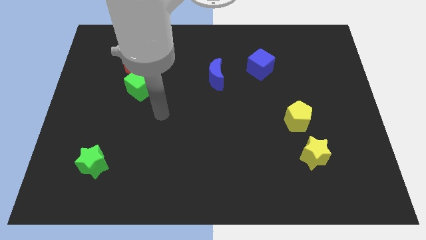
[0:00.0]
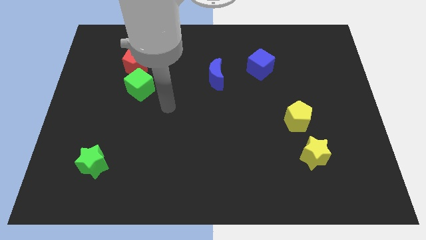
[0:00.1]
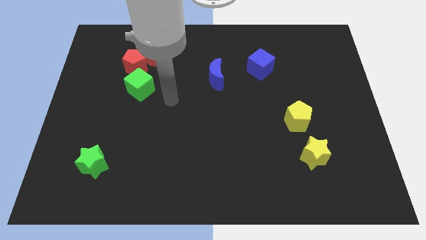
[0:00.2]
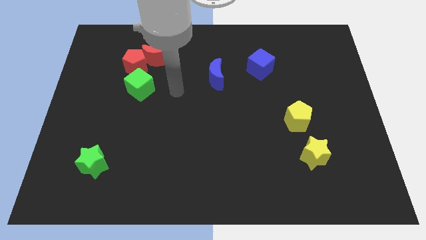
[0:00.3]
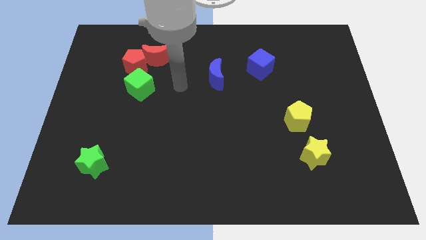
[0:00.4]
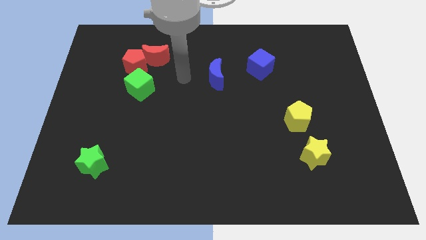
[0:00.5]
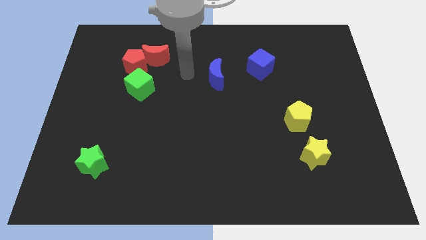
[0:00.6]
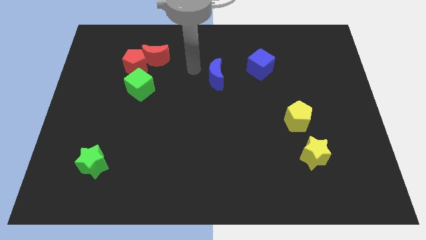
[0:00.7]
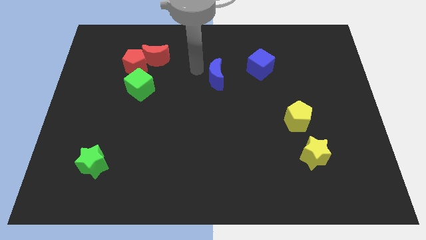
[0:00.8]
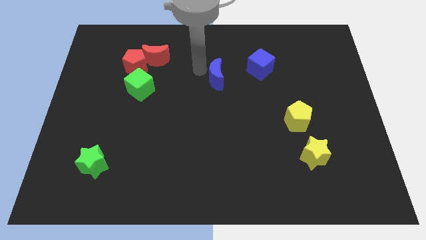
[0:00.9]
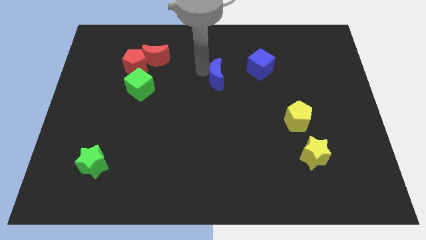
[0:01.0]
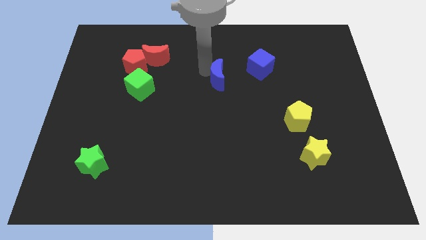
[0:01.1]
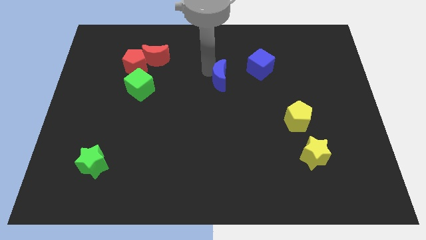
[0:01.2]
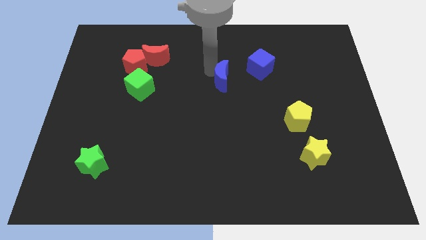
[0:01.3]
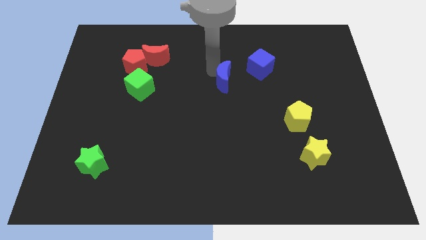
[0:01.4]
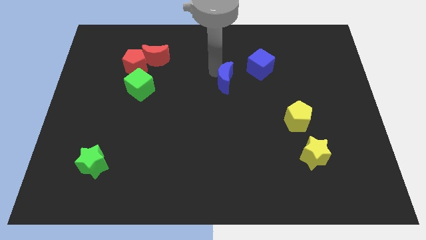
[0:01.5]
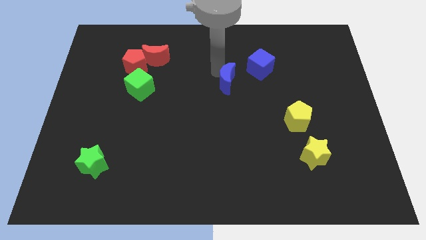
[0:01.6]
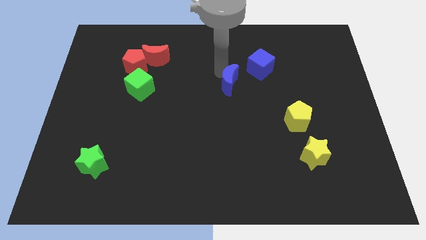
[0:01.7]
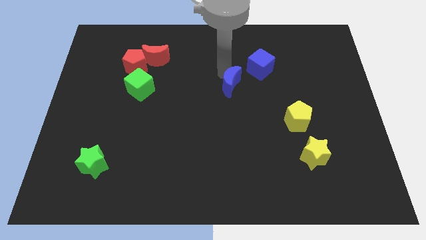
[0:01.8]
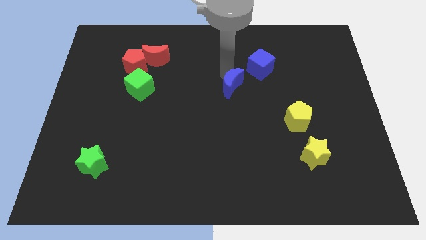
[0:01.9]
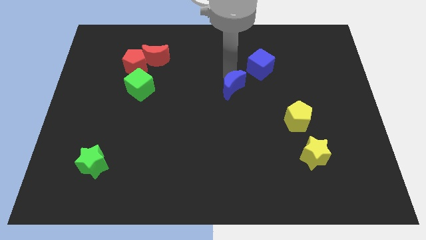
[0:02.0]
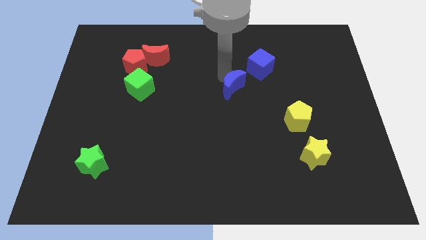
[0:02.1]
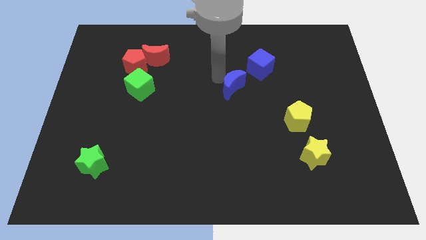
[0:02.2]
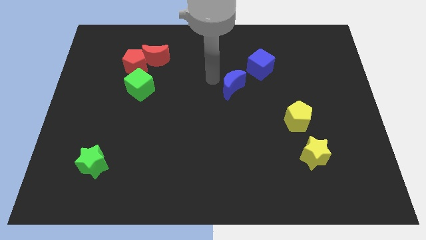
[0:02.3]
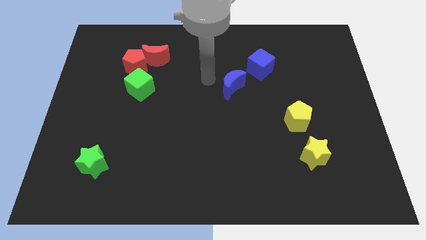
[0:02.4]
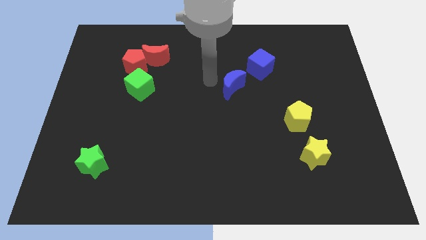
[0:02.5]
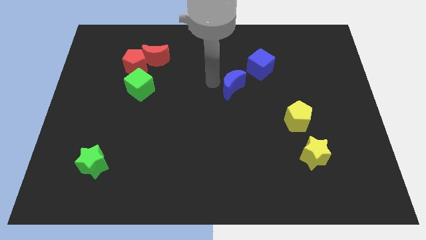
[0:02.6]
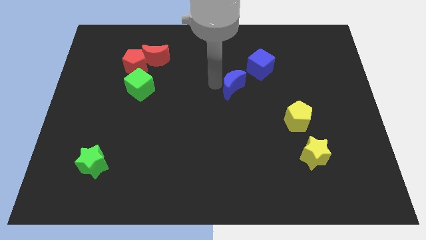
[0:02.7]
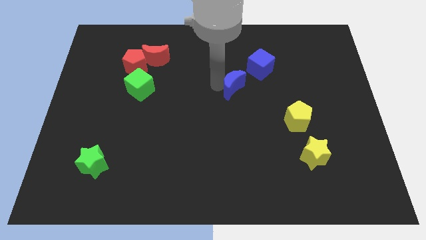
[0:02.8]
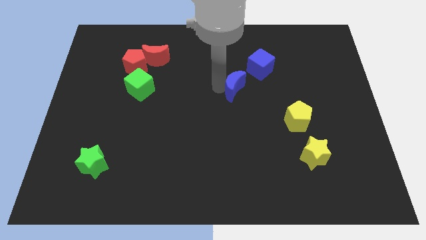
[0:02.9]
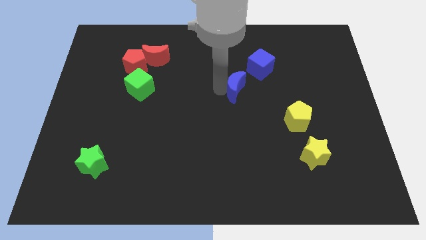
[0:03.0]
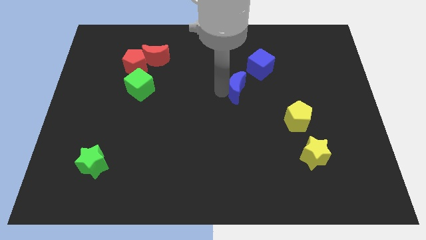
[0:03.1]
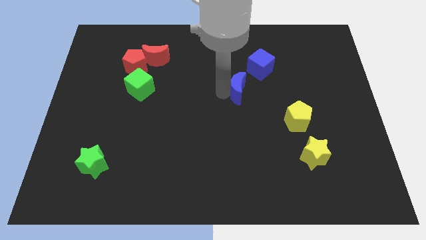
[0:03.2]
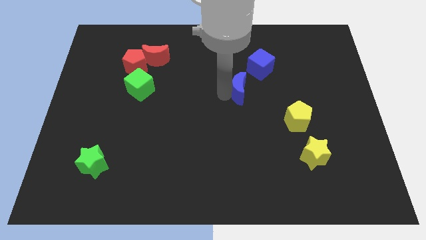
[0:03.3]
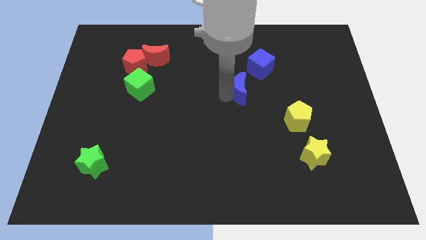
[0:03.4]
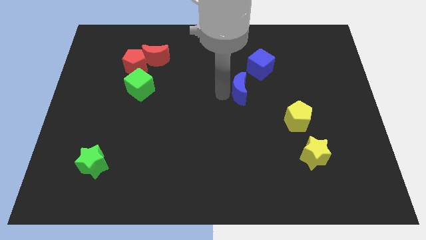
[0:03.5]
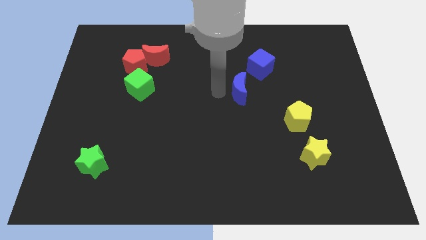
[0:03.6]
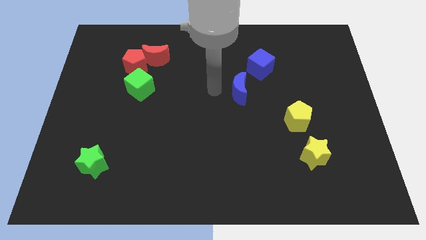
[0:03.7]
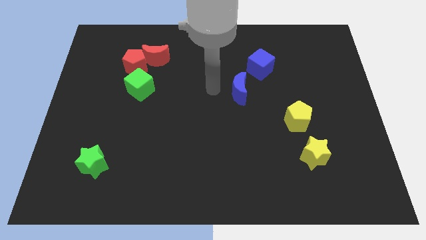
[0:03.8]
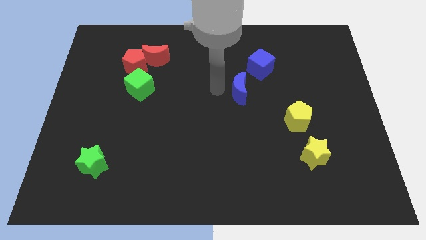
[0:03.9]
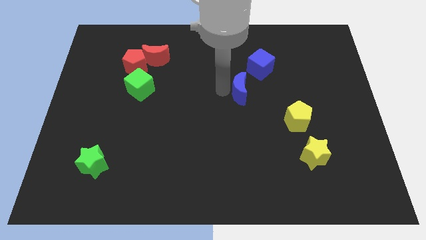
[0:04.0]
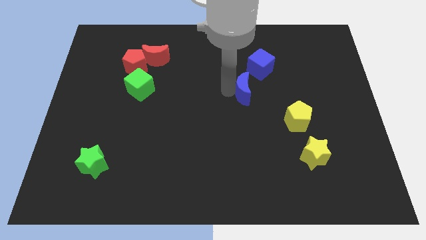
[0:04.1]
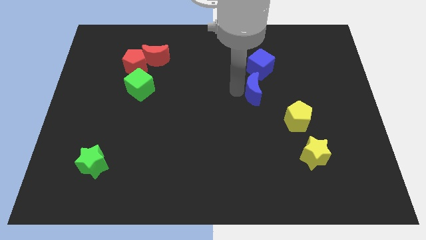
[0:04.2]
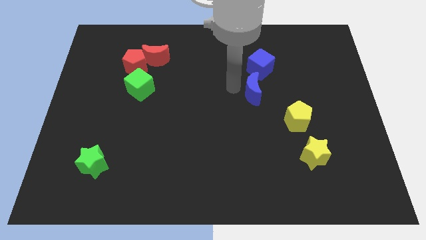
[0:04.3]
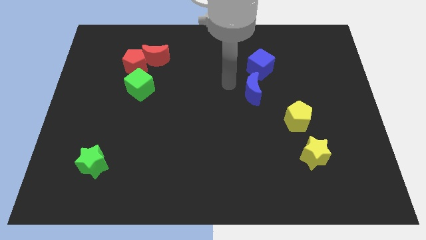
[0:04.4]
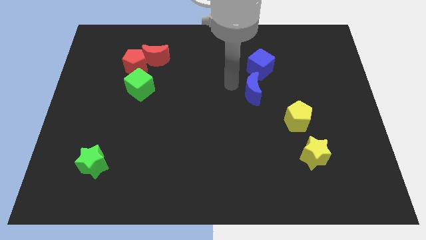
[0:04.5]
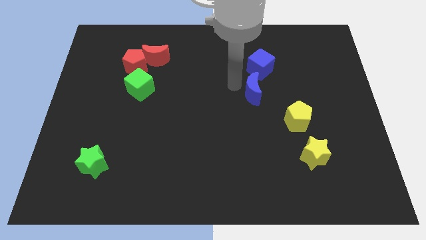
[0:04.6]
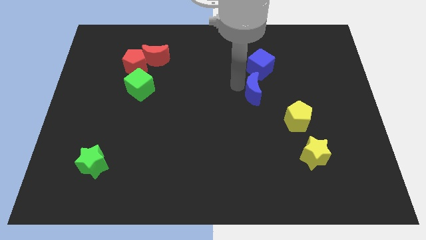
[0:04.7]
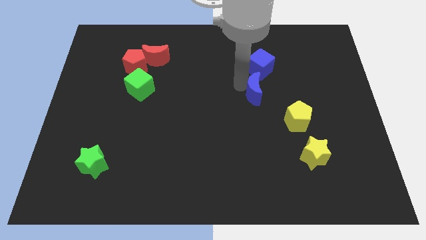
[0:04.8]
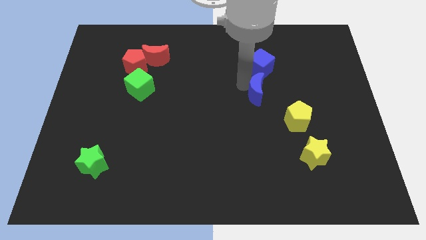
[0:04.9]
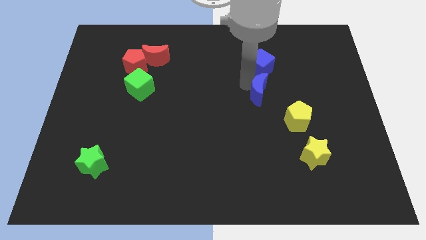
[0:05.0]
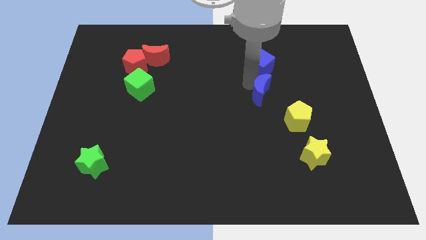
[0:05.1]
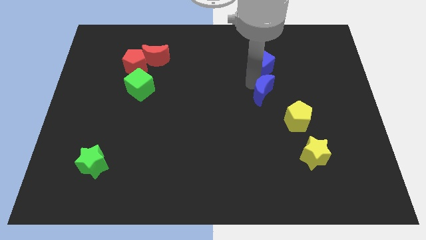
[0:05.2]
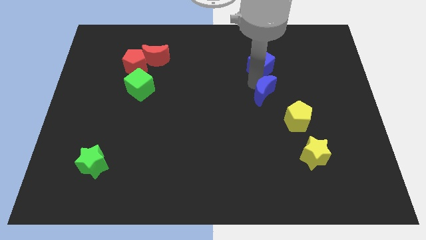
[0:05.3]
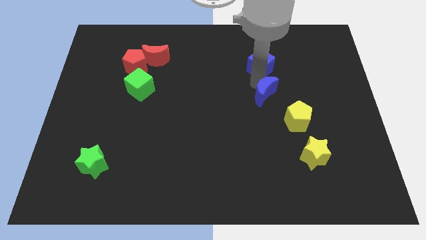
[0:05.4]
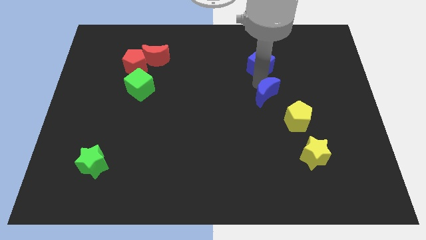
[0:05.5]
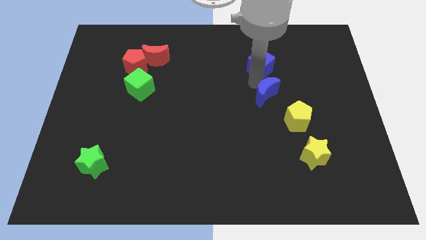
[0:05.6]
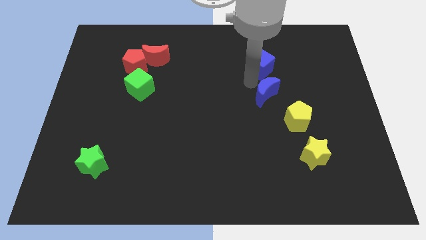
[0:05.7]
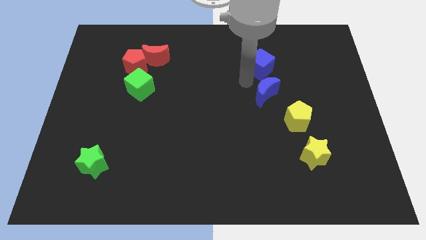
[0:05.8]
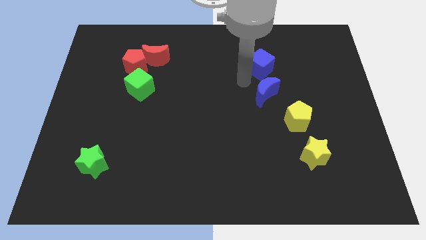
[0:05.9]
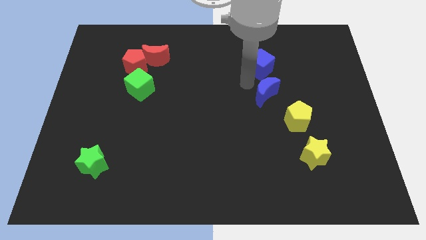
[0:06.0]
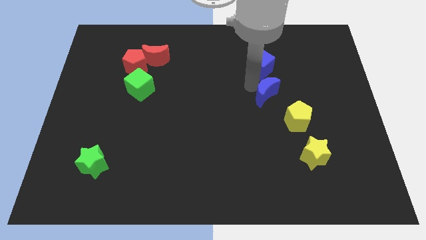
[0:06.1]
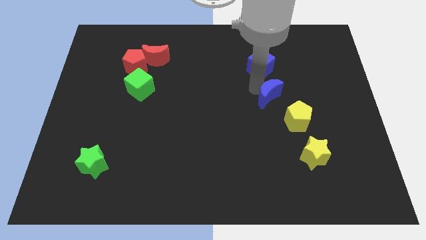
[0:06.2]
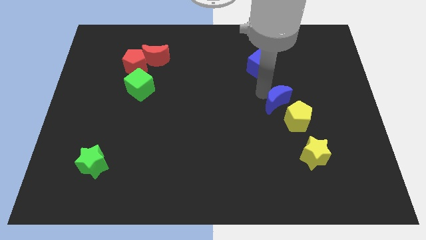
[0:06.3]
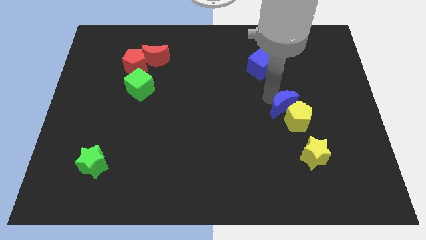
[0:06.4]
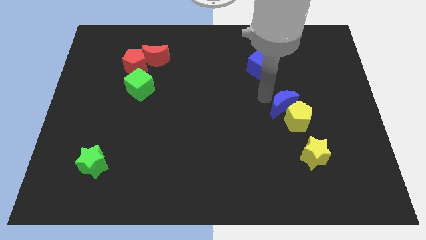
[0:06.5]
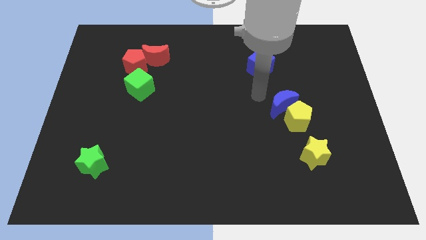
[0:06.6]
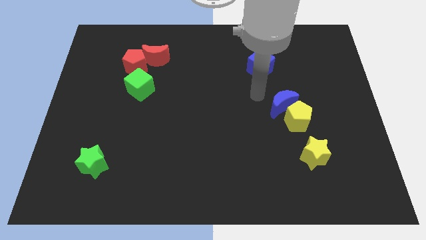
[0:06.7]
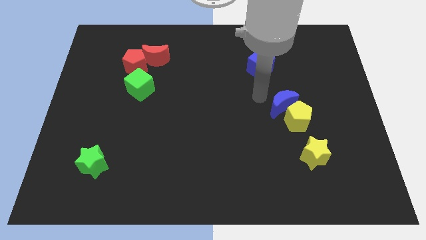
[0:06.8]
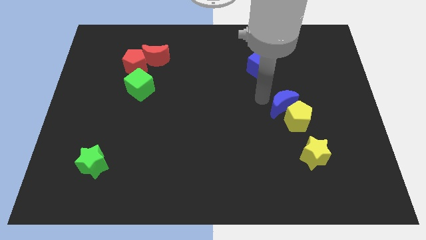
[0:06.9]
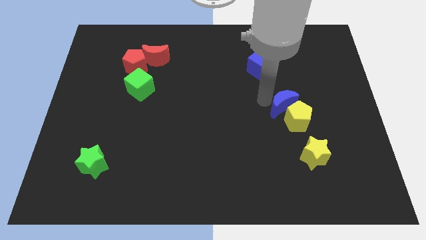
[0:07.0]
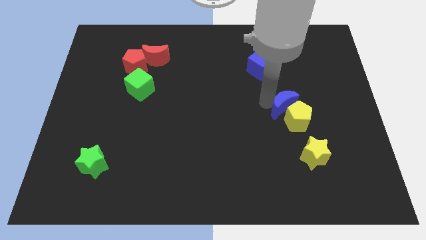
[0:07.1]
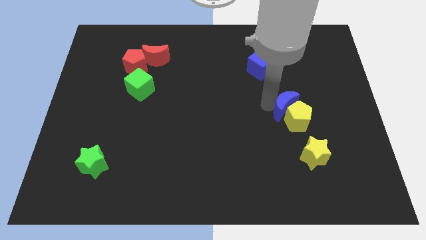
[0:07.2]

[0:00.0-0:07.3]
push the blue moon to the top side of the yellow star
